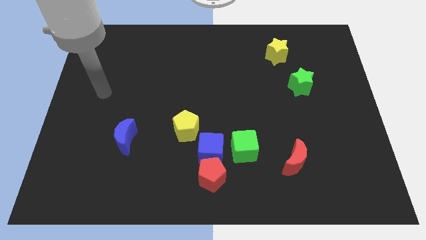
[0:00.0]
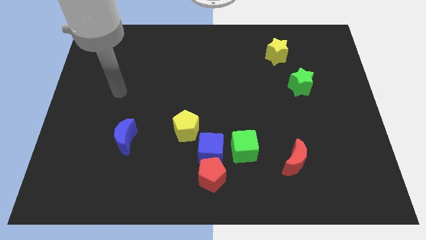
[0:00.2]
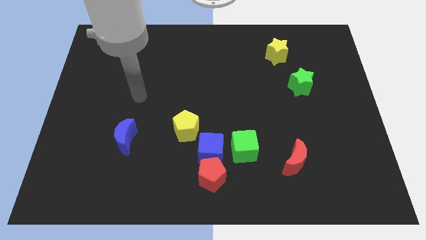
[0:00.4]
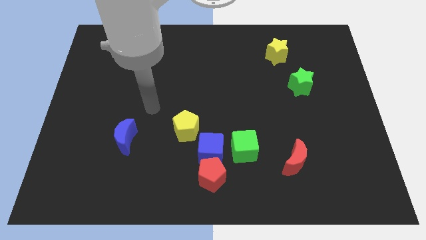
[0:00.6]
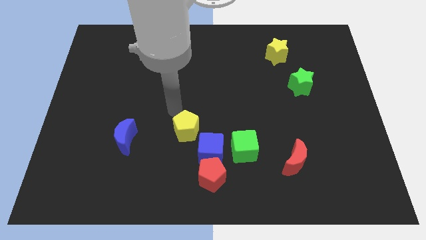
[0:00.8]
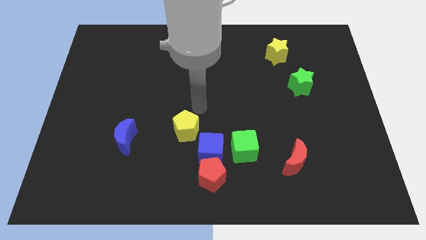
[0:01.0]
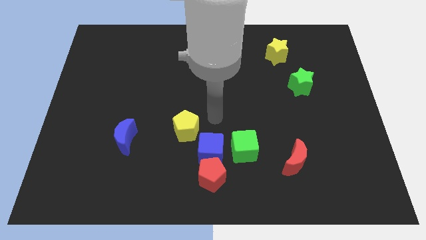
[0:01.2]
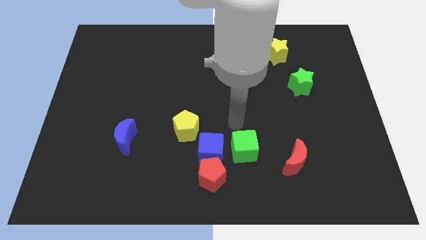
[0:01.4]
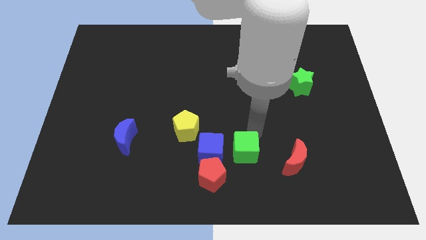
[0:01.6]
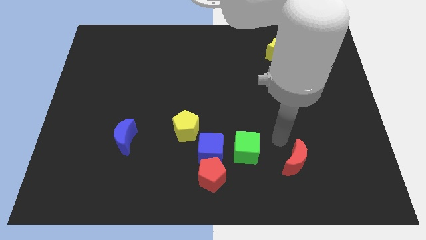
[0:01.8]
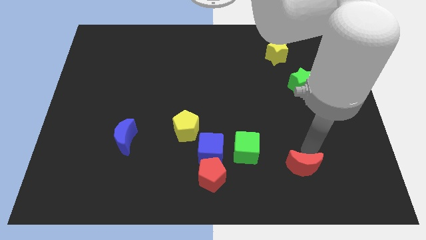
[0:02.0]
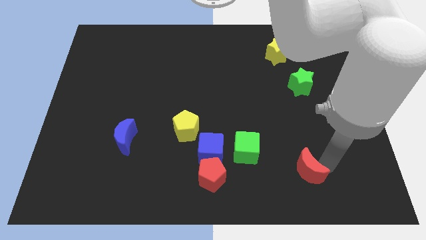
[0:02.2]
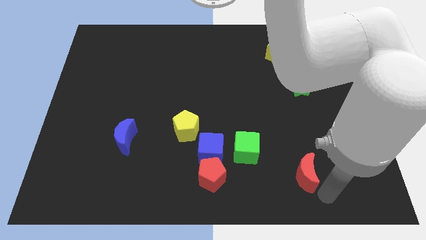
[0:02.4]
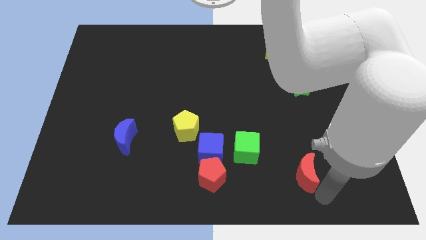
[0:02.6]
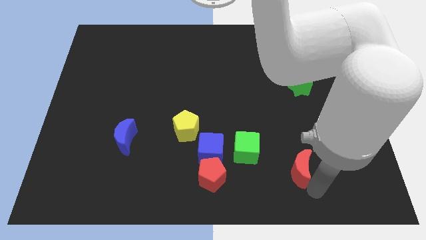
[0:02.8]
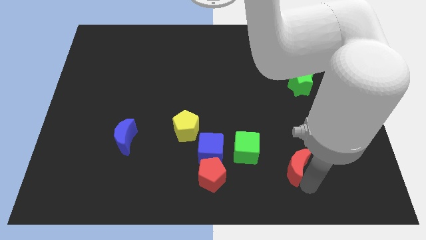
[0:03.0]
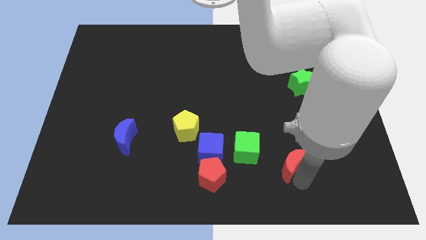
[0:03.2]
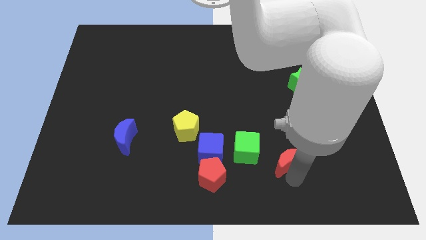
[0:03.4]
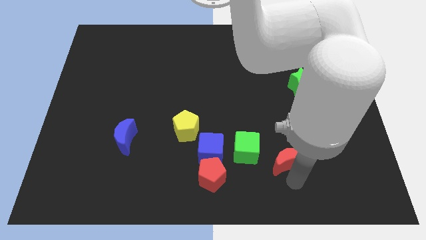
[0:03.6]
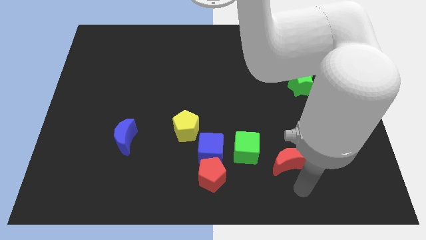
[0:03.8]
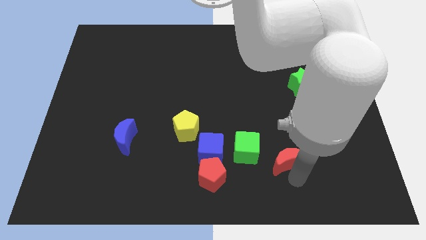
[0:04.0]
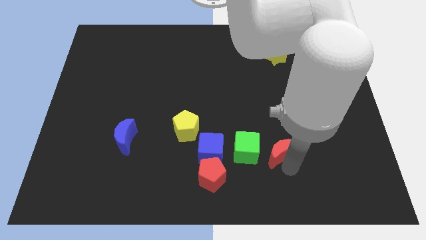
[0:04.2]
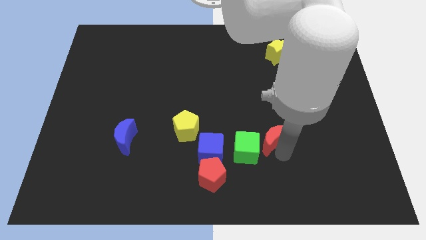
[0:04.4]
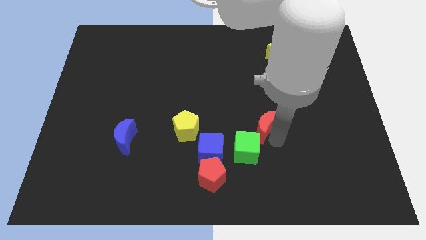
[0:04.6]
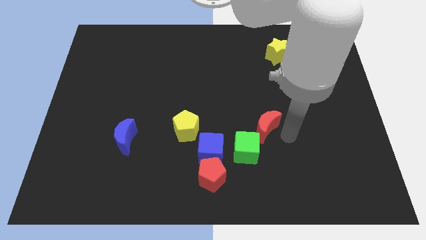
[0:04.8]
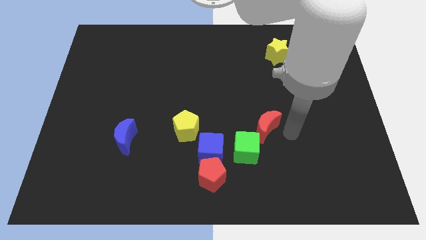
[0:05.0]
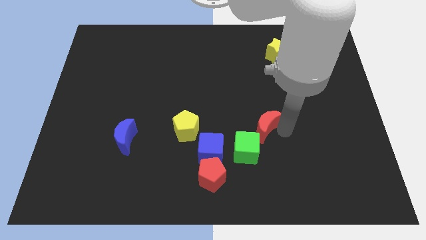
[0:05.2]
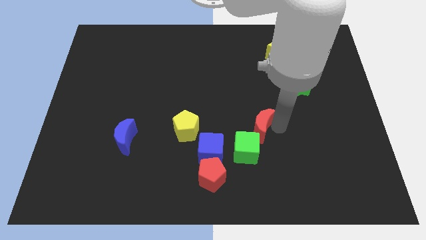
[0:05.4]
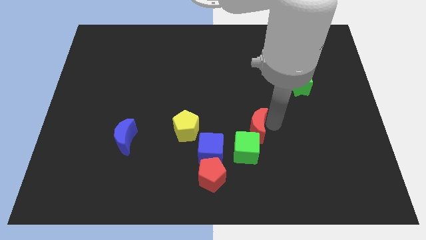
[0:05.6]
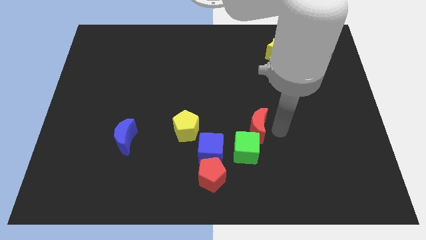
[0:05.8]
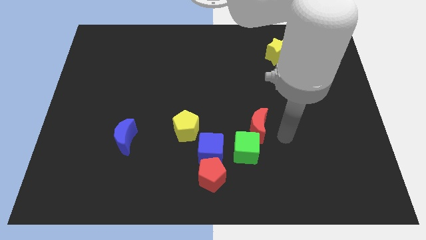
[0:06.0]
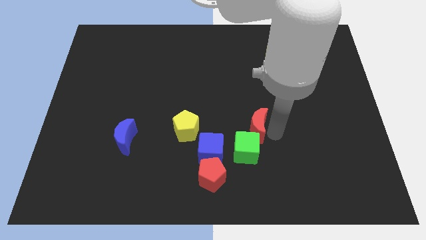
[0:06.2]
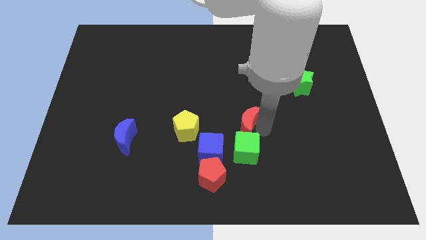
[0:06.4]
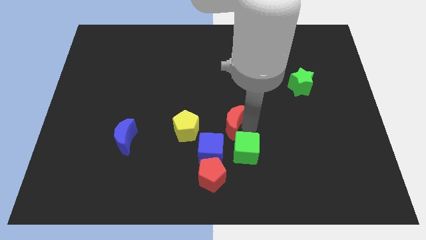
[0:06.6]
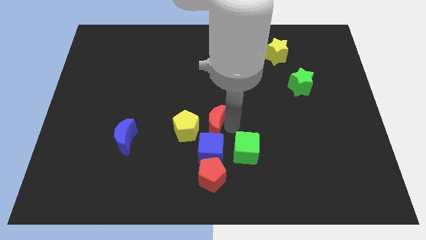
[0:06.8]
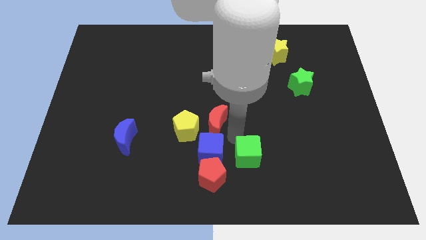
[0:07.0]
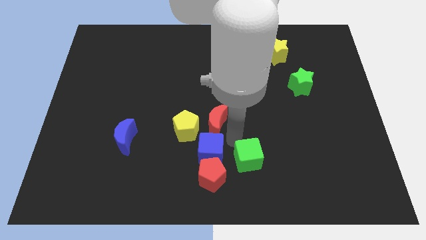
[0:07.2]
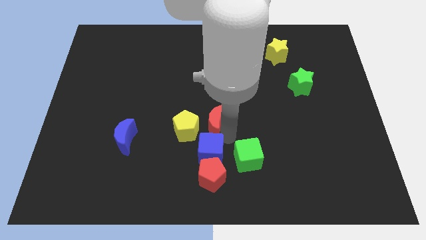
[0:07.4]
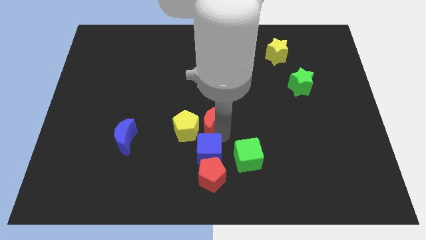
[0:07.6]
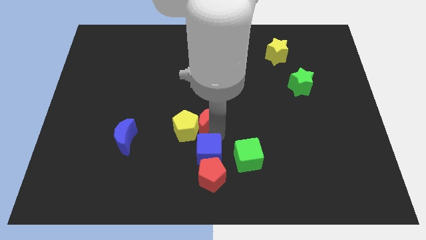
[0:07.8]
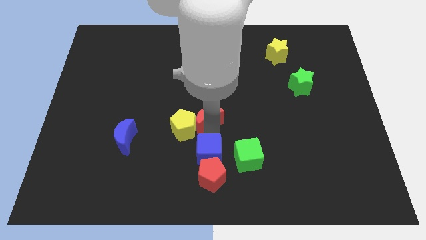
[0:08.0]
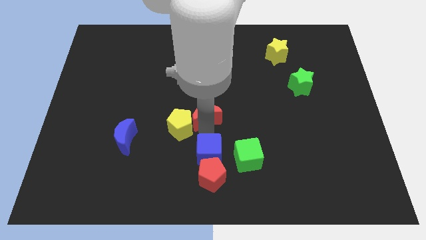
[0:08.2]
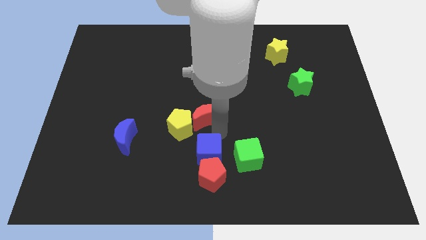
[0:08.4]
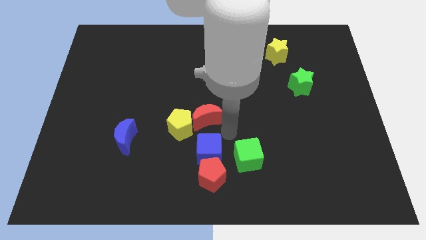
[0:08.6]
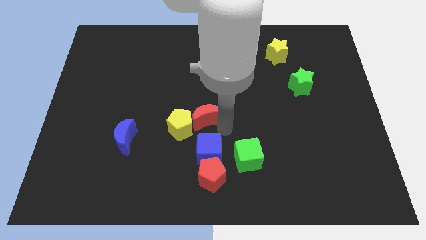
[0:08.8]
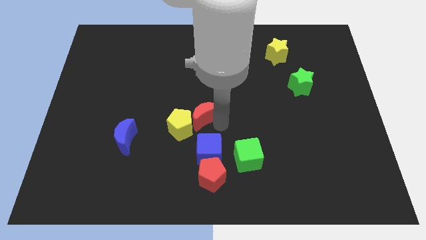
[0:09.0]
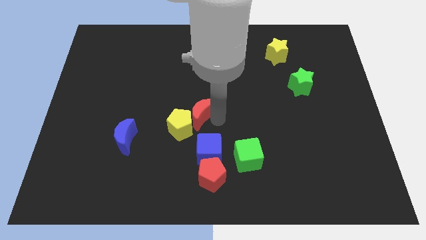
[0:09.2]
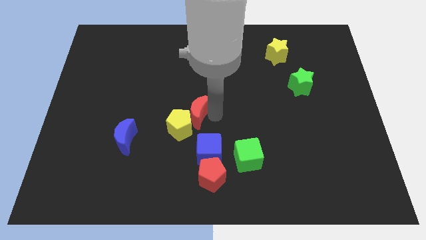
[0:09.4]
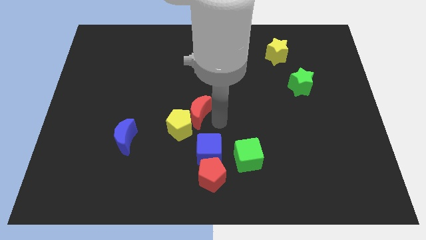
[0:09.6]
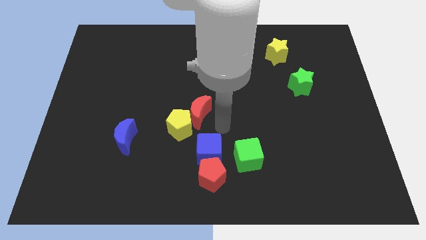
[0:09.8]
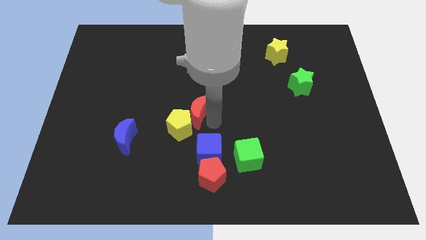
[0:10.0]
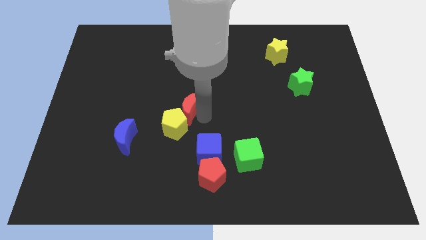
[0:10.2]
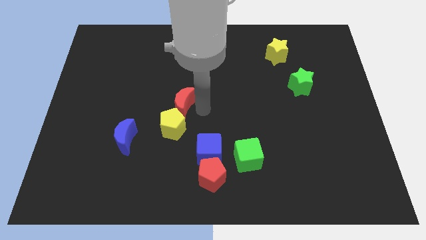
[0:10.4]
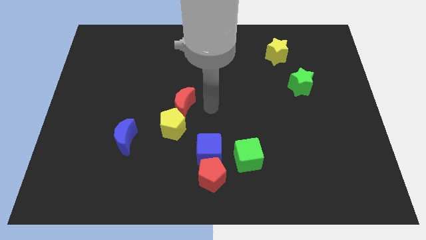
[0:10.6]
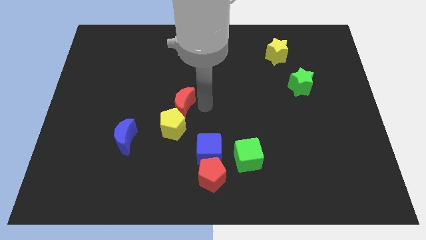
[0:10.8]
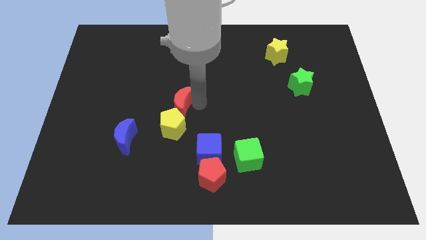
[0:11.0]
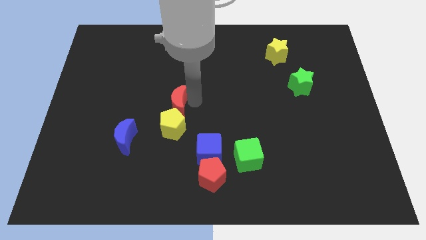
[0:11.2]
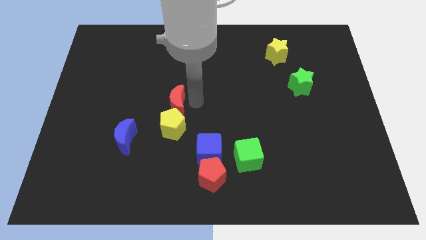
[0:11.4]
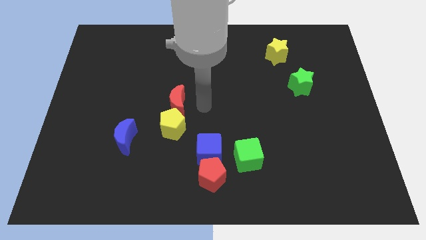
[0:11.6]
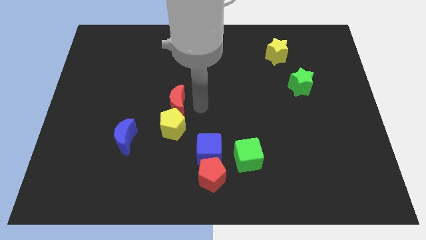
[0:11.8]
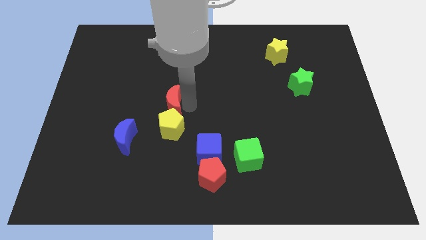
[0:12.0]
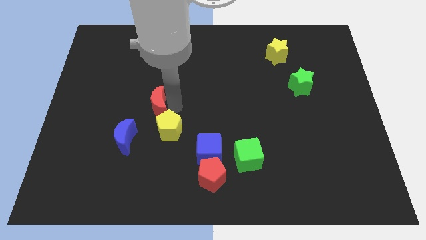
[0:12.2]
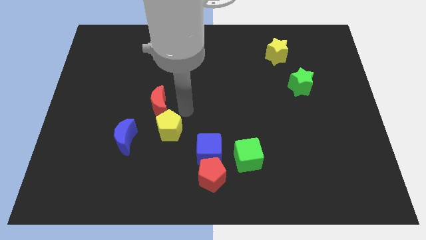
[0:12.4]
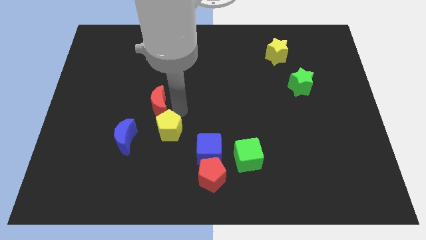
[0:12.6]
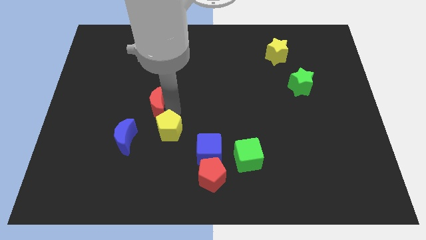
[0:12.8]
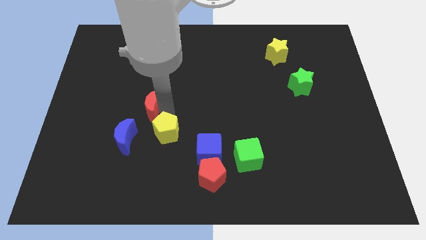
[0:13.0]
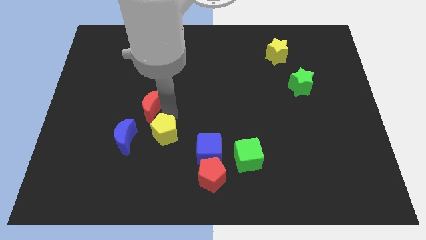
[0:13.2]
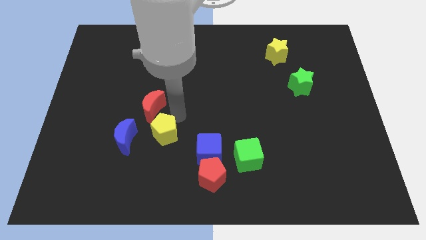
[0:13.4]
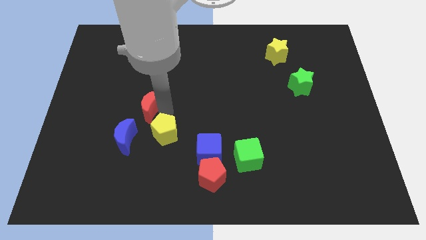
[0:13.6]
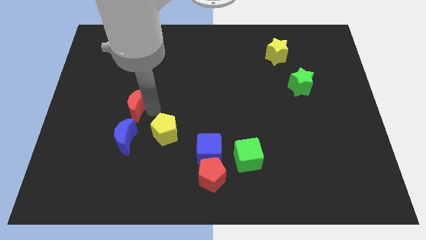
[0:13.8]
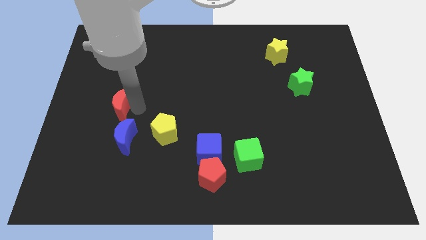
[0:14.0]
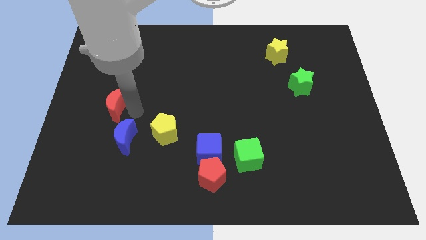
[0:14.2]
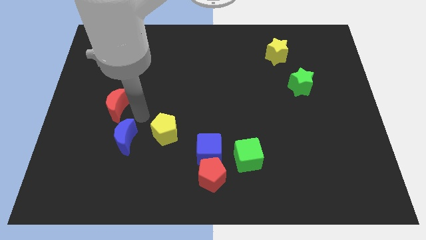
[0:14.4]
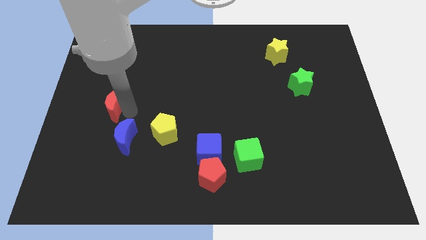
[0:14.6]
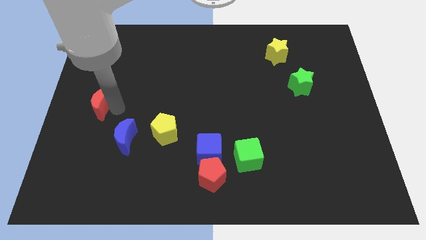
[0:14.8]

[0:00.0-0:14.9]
push the red moon to the center left
